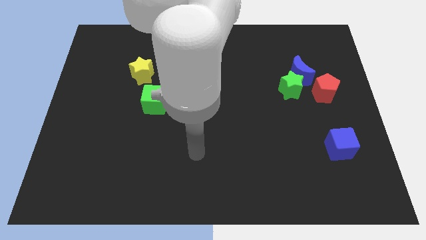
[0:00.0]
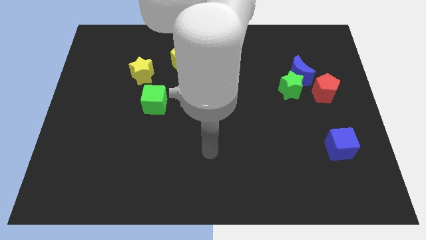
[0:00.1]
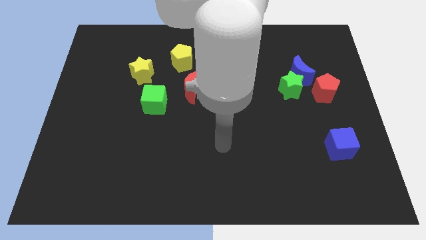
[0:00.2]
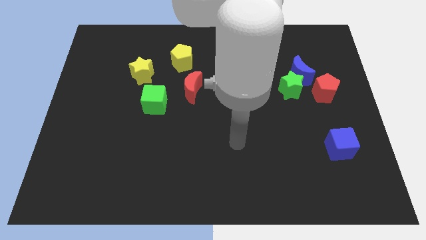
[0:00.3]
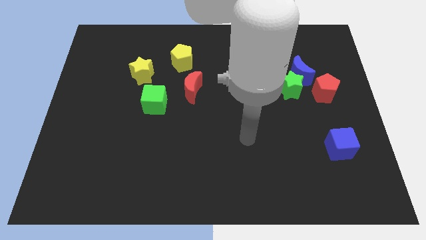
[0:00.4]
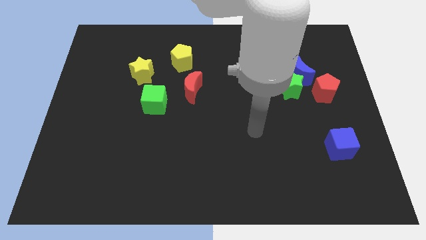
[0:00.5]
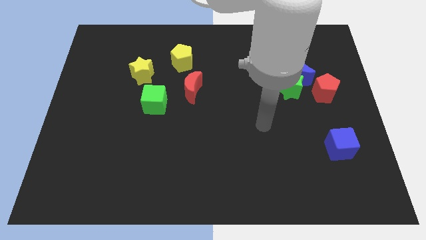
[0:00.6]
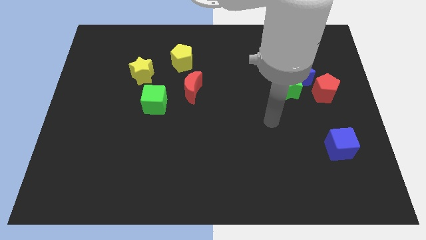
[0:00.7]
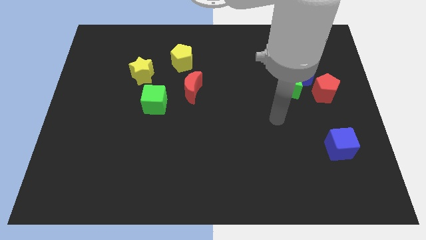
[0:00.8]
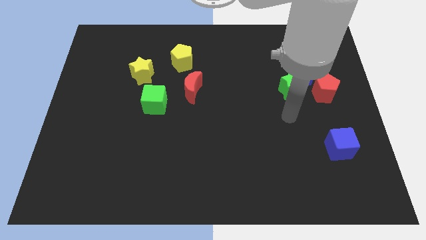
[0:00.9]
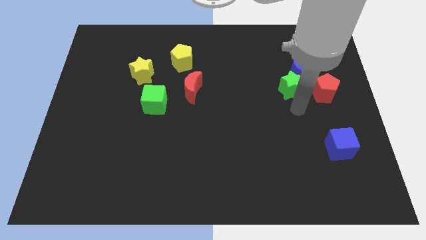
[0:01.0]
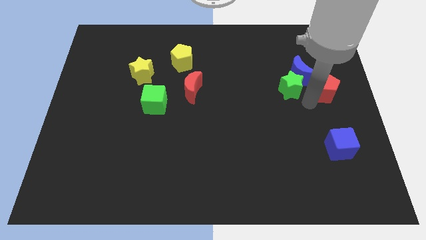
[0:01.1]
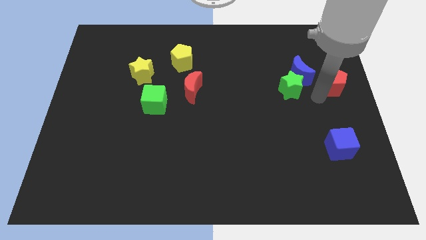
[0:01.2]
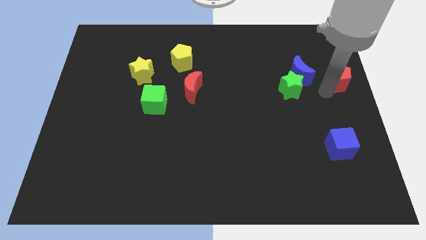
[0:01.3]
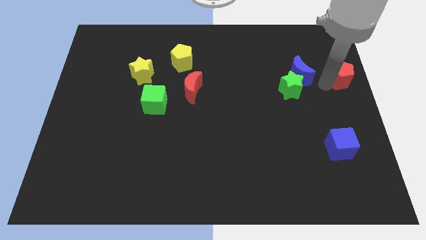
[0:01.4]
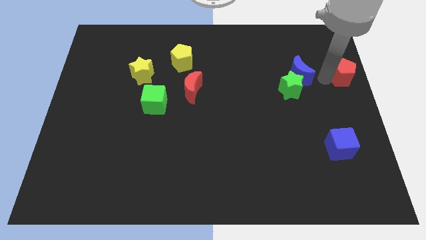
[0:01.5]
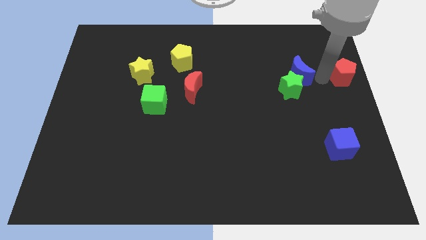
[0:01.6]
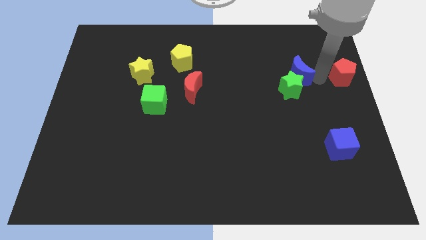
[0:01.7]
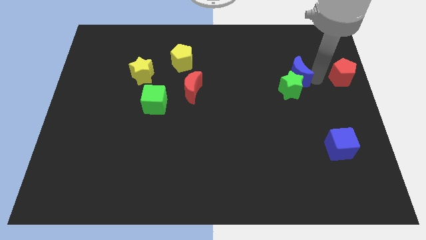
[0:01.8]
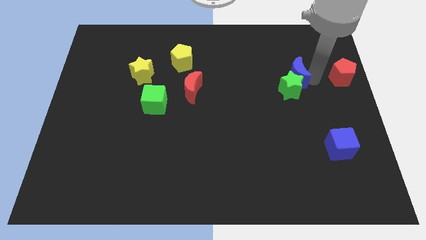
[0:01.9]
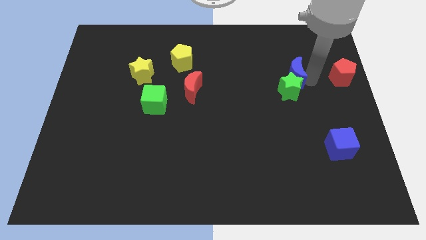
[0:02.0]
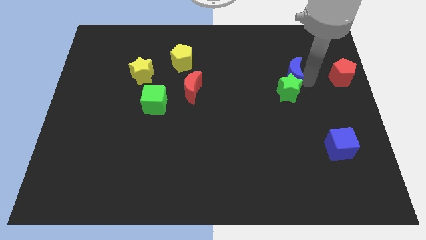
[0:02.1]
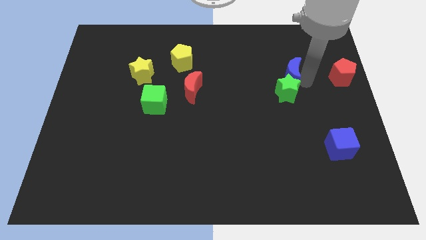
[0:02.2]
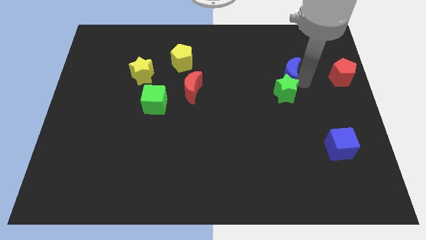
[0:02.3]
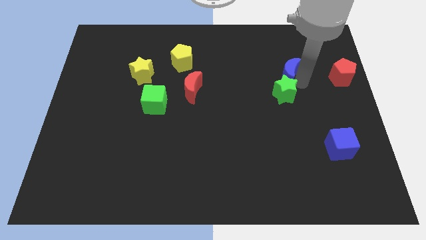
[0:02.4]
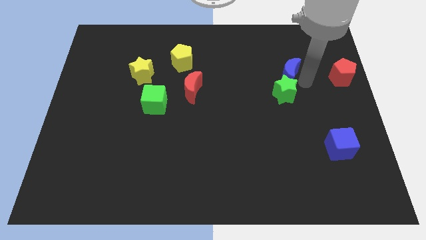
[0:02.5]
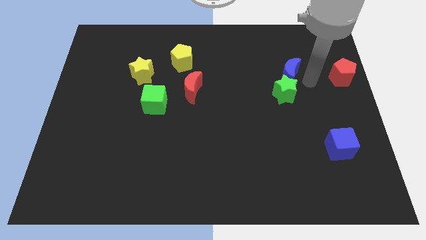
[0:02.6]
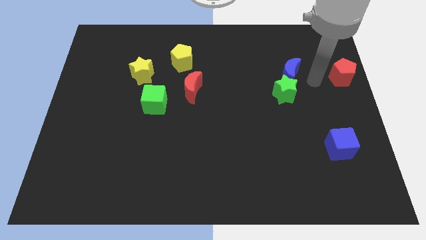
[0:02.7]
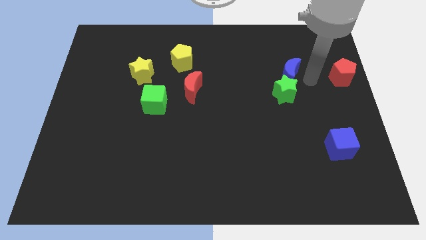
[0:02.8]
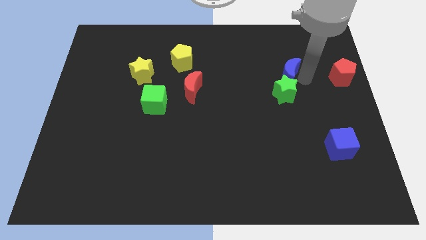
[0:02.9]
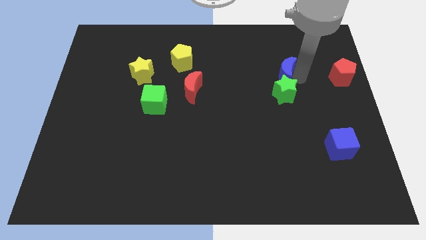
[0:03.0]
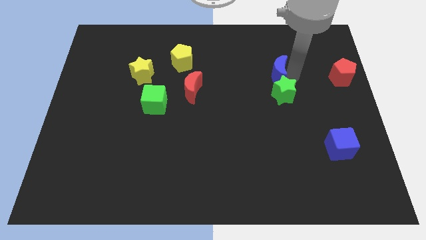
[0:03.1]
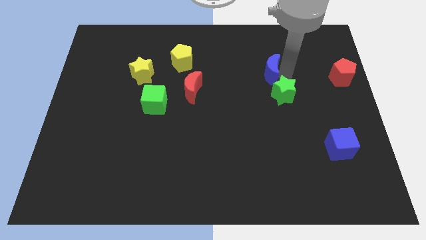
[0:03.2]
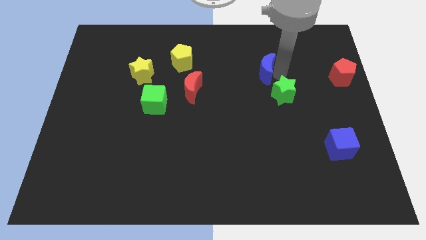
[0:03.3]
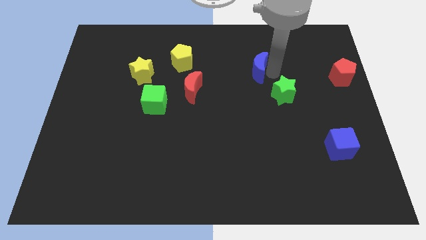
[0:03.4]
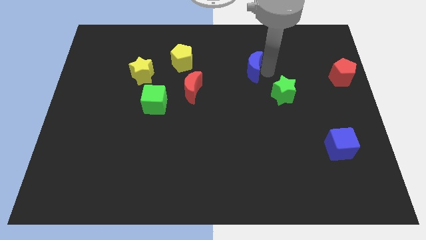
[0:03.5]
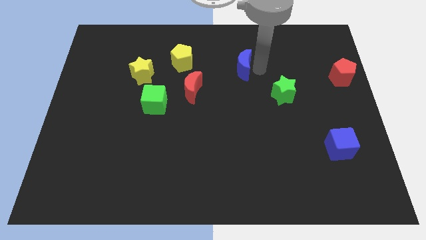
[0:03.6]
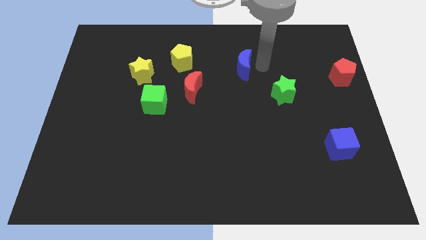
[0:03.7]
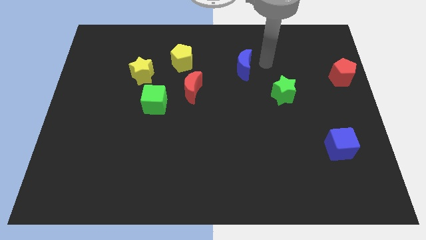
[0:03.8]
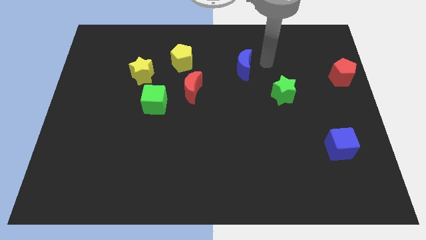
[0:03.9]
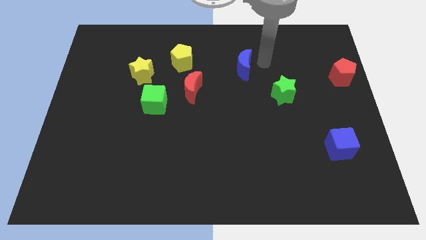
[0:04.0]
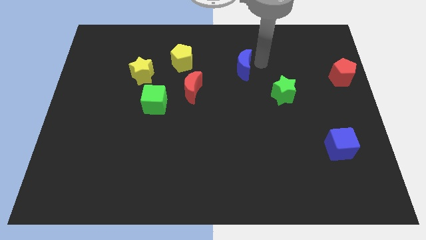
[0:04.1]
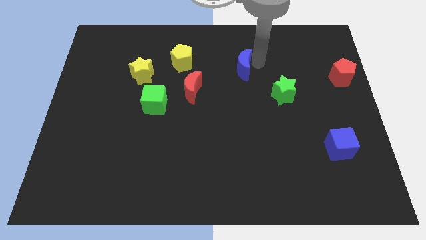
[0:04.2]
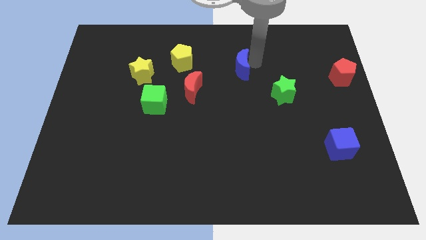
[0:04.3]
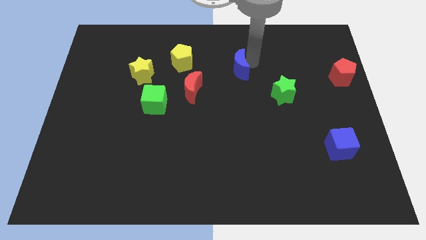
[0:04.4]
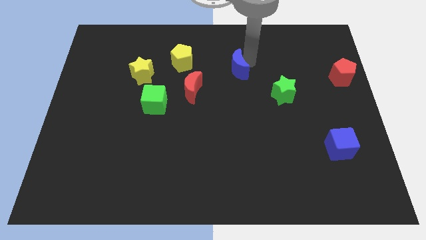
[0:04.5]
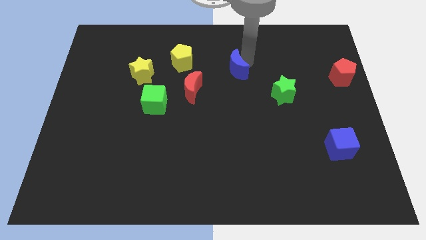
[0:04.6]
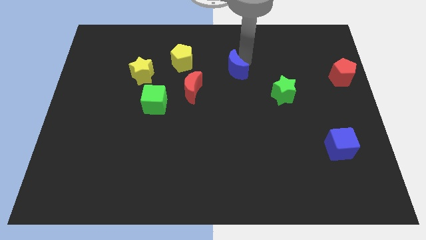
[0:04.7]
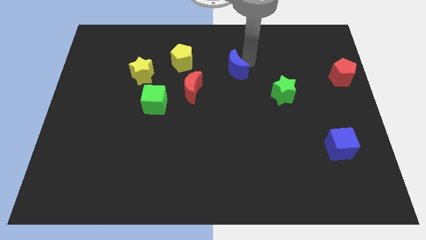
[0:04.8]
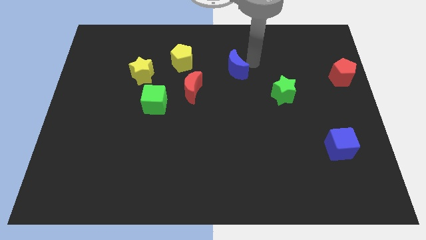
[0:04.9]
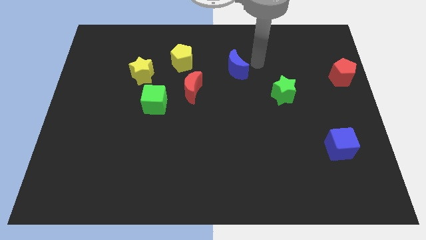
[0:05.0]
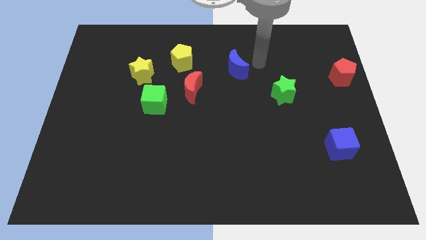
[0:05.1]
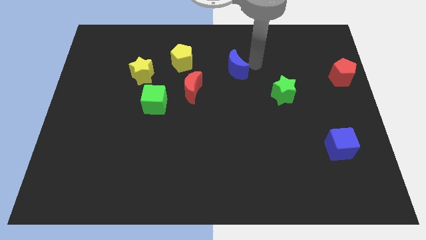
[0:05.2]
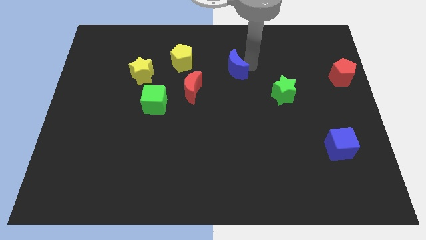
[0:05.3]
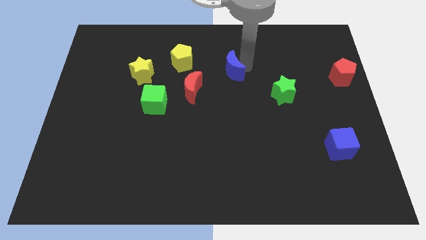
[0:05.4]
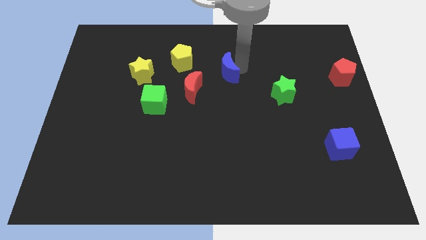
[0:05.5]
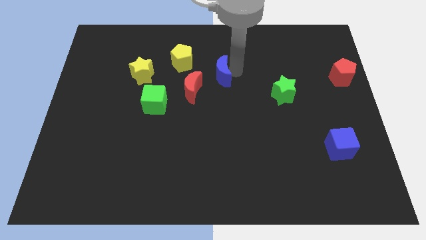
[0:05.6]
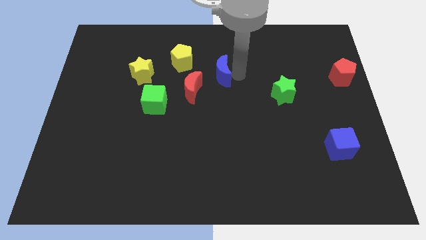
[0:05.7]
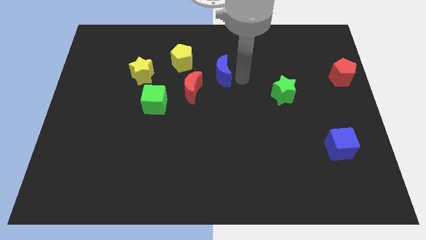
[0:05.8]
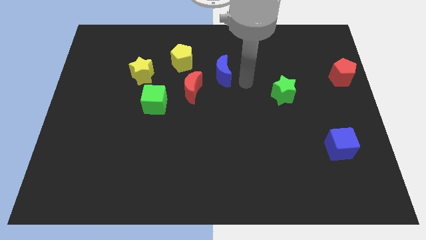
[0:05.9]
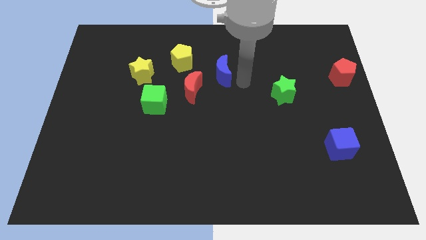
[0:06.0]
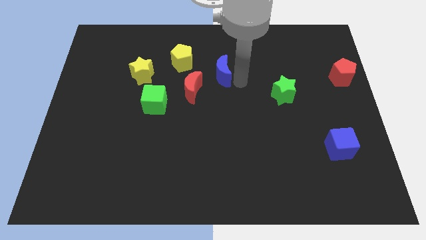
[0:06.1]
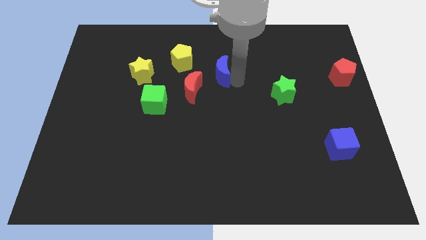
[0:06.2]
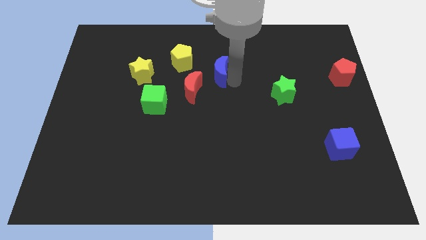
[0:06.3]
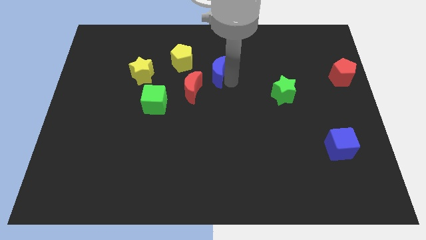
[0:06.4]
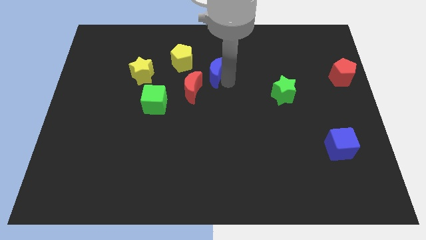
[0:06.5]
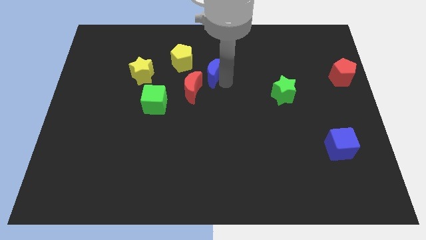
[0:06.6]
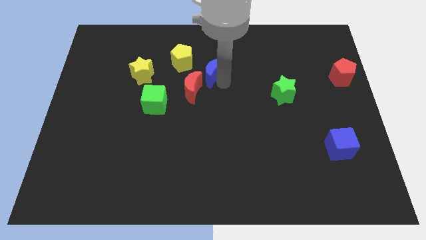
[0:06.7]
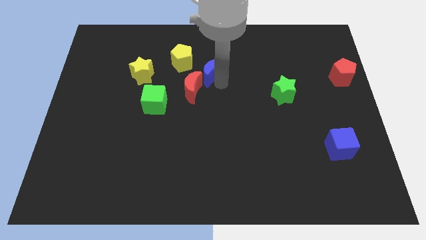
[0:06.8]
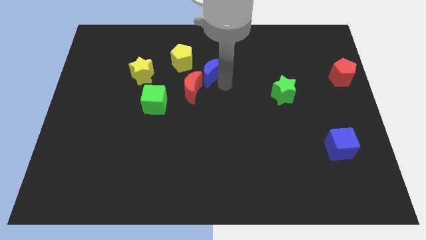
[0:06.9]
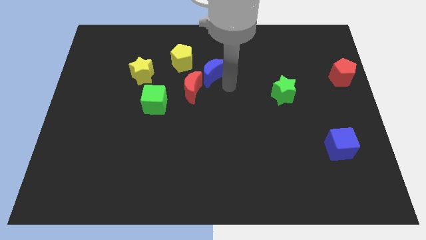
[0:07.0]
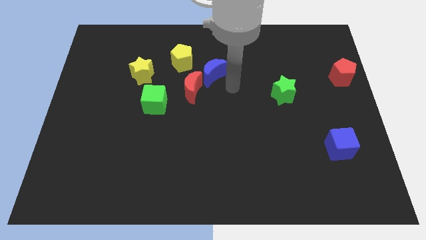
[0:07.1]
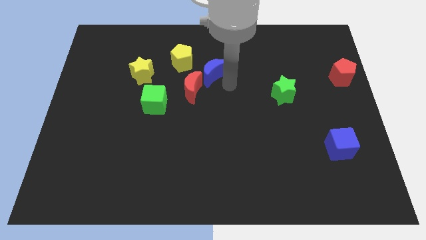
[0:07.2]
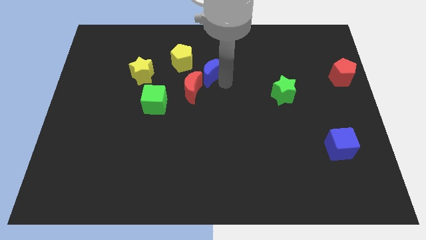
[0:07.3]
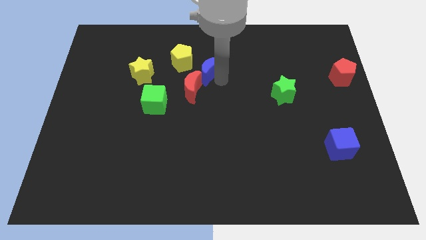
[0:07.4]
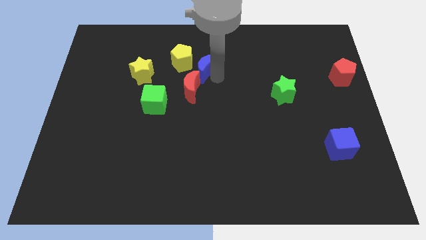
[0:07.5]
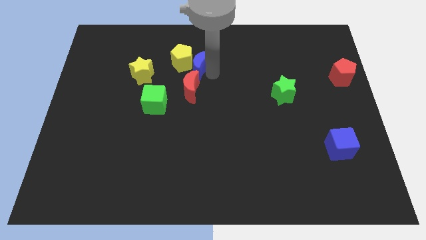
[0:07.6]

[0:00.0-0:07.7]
slide the blue moon next to the yellow pentagon
